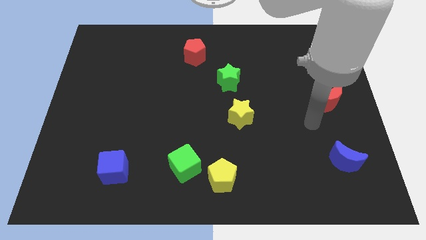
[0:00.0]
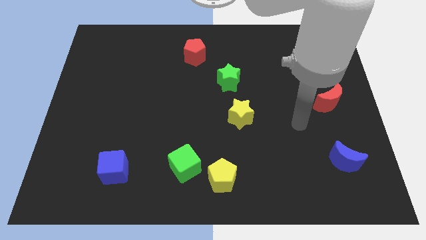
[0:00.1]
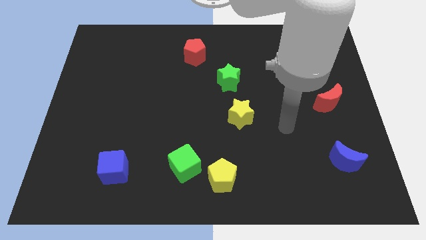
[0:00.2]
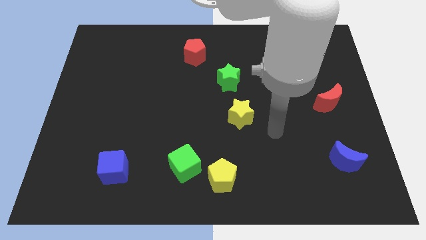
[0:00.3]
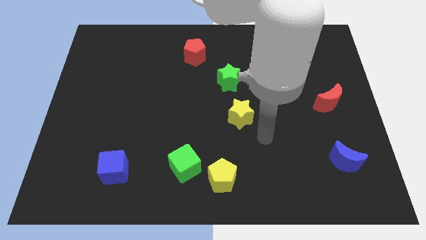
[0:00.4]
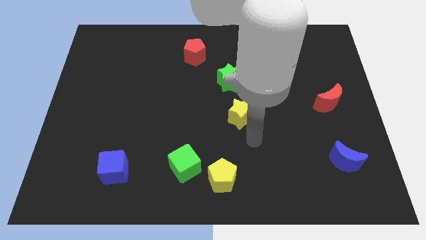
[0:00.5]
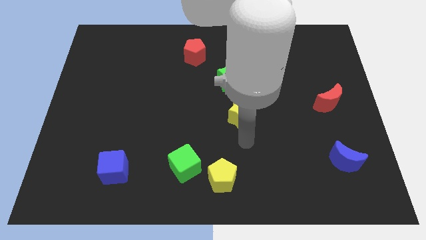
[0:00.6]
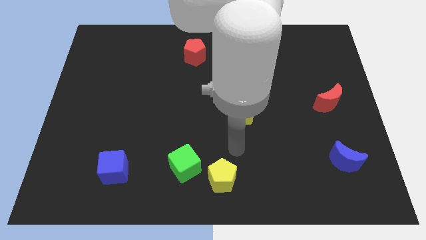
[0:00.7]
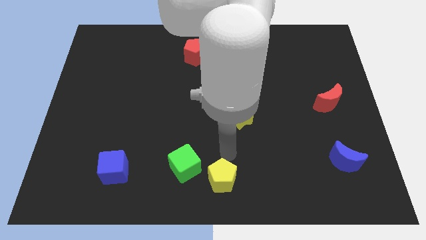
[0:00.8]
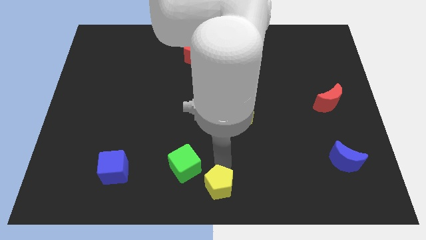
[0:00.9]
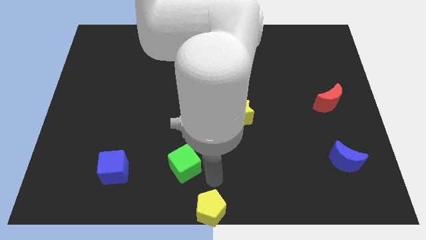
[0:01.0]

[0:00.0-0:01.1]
separate the green cube from the yellow pentagon

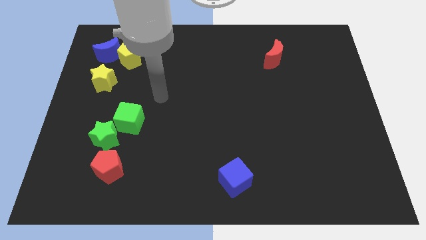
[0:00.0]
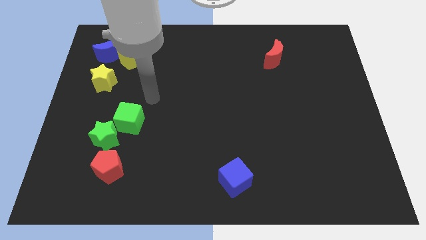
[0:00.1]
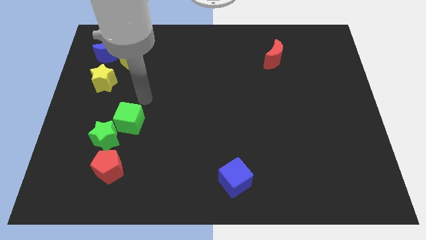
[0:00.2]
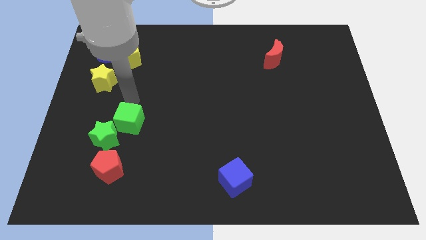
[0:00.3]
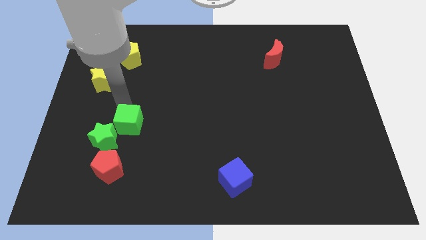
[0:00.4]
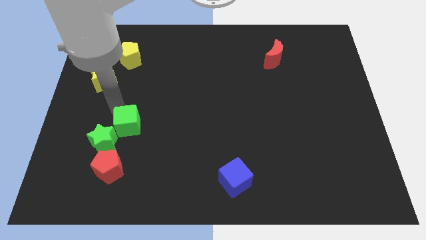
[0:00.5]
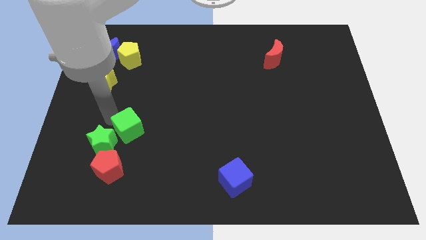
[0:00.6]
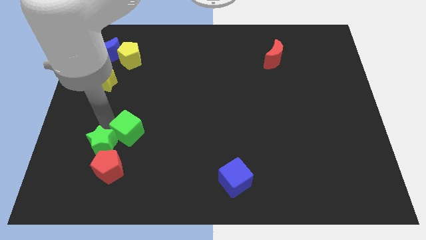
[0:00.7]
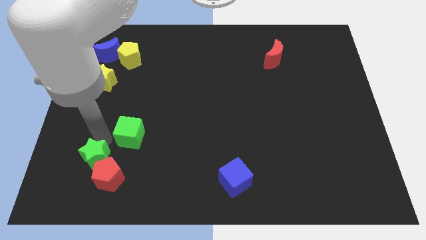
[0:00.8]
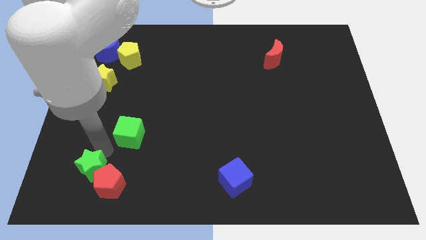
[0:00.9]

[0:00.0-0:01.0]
pull the green cube apart from the green star

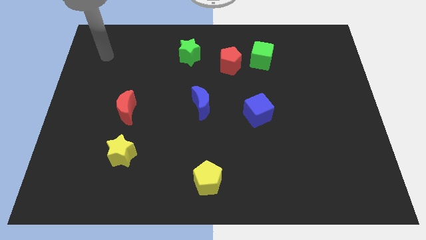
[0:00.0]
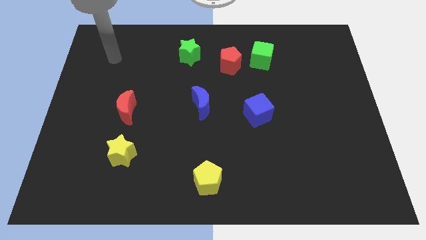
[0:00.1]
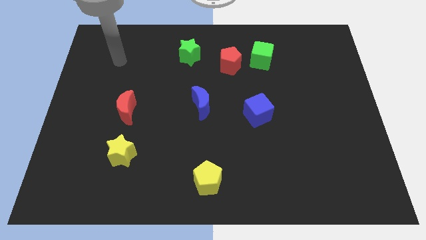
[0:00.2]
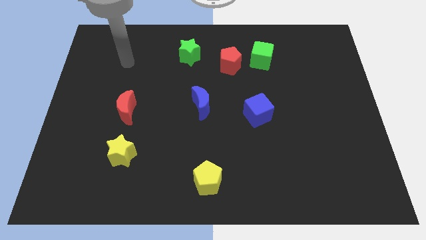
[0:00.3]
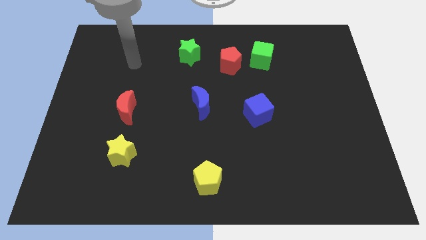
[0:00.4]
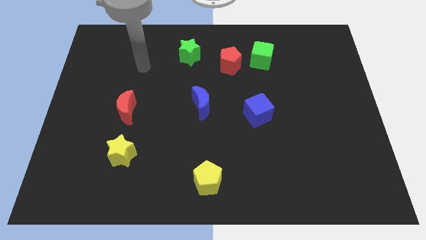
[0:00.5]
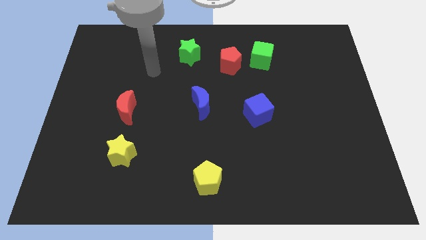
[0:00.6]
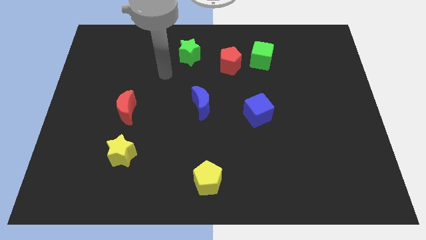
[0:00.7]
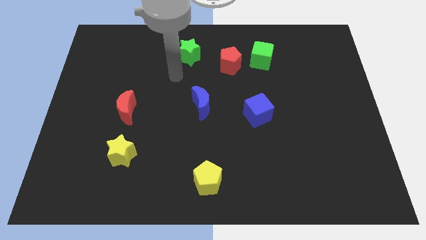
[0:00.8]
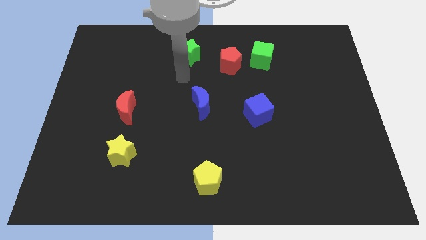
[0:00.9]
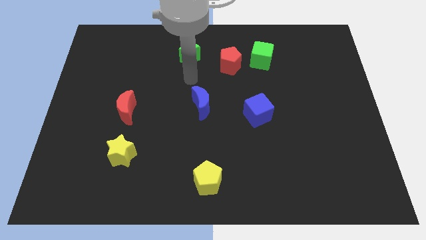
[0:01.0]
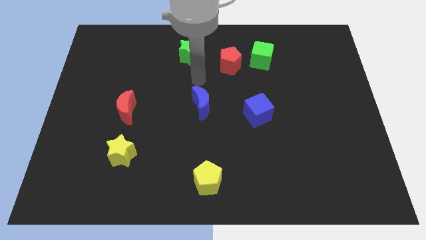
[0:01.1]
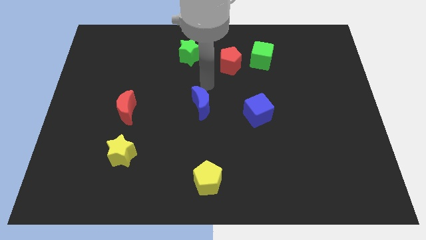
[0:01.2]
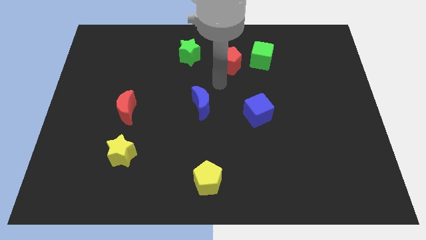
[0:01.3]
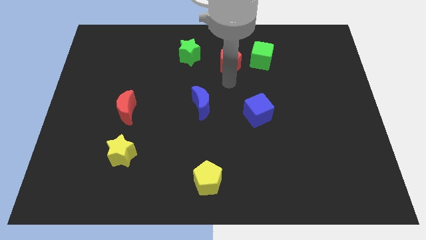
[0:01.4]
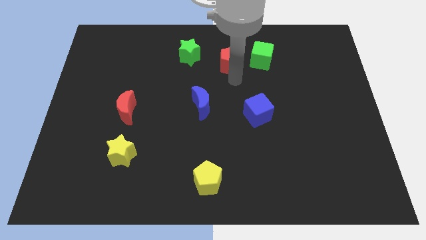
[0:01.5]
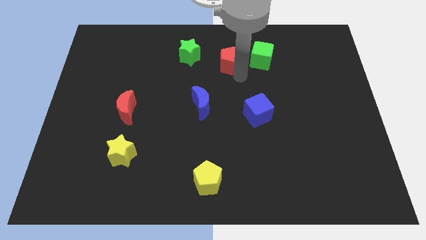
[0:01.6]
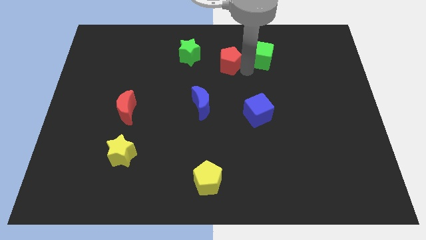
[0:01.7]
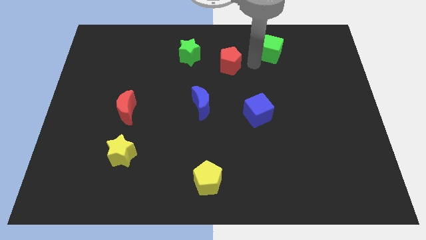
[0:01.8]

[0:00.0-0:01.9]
move the red pentagon away from the green cube

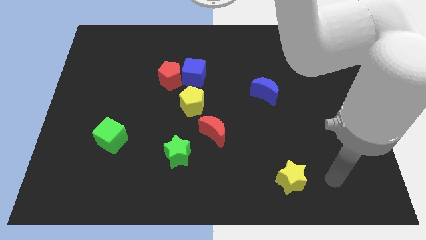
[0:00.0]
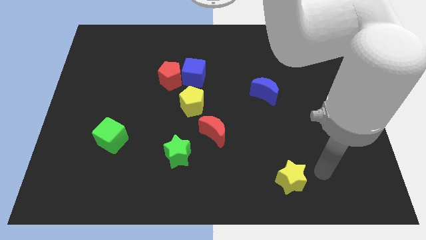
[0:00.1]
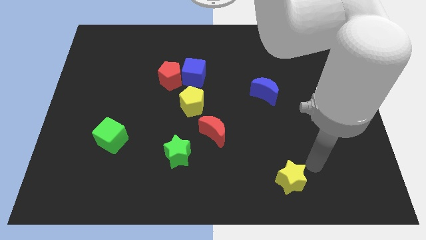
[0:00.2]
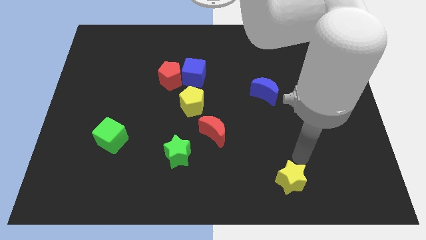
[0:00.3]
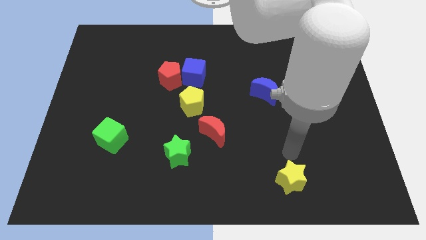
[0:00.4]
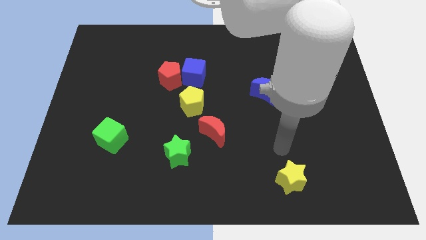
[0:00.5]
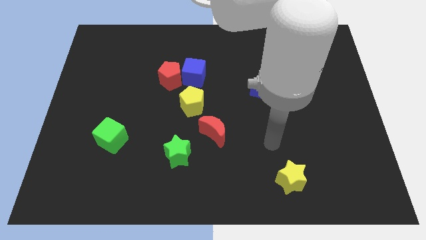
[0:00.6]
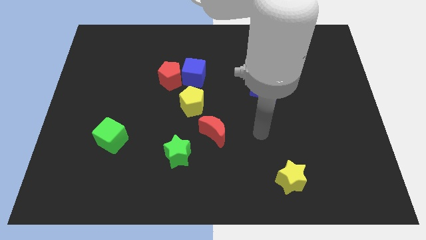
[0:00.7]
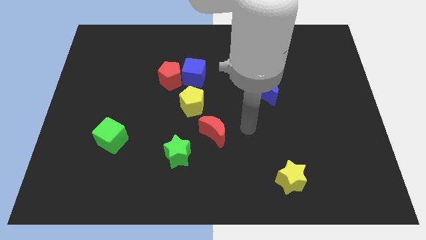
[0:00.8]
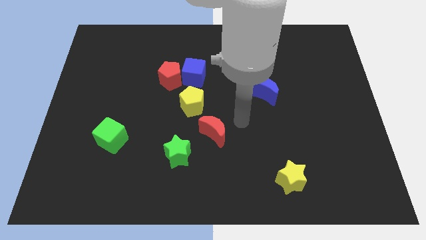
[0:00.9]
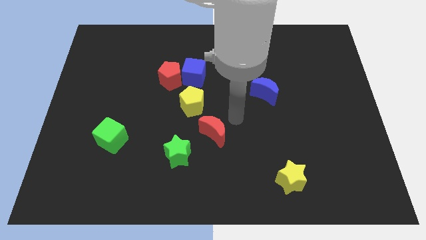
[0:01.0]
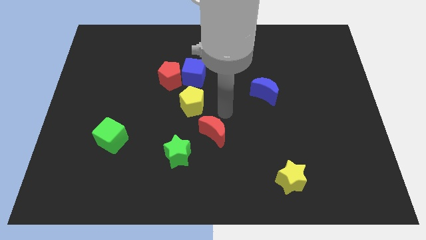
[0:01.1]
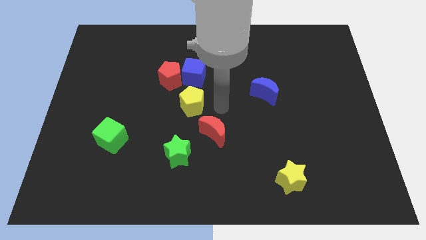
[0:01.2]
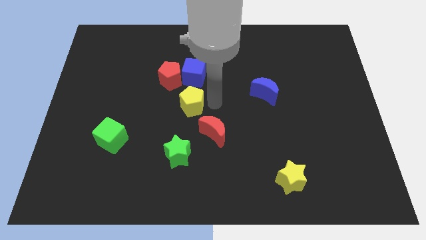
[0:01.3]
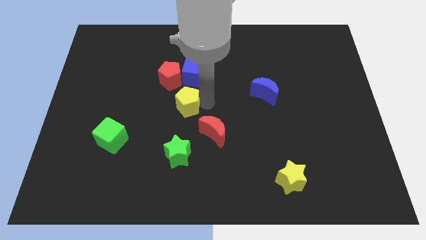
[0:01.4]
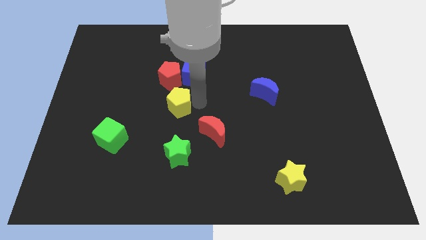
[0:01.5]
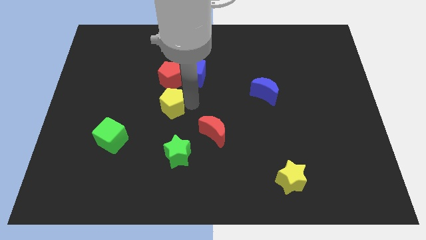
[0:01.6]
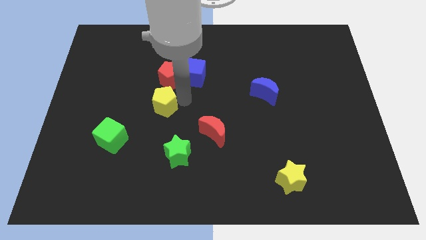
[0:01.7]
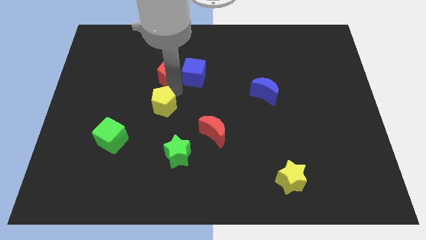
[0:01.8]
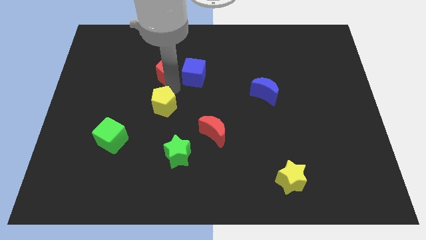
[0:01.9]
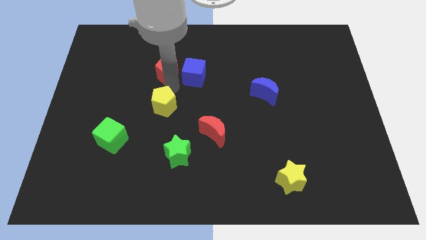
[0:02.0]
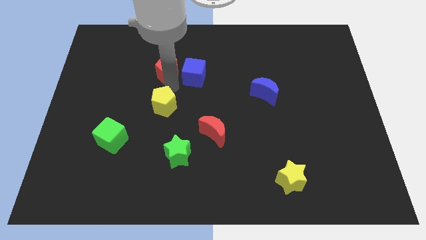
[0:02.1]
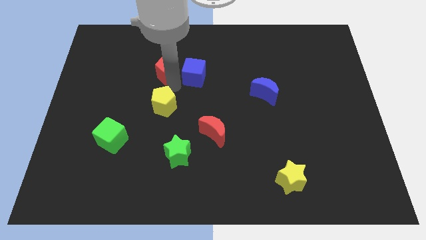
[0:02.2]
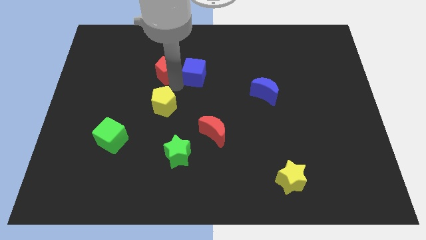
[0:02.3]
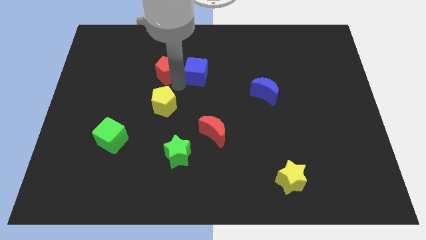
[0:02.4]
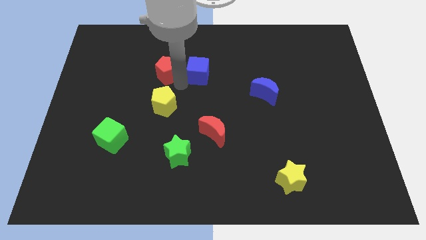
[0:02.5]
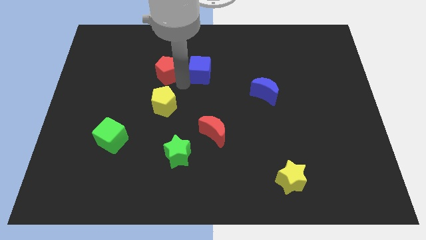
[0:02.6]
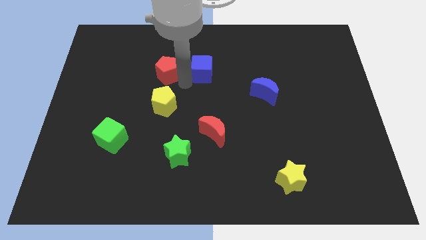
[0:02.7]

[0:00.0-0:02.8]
separate the blue cube from the red pentagon and yellow pentagon

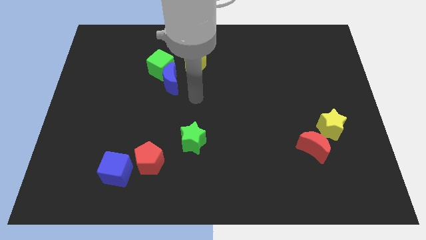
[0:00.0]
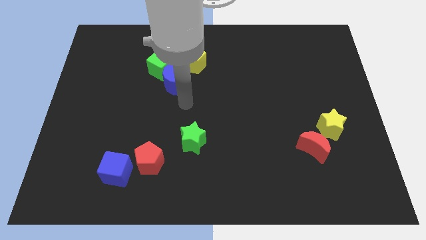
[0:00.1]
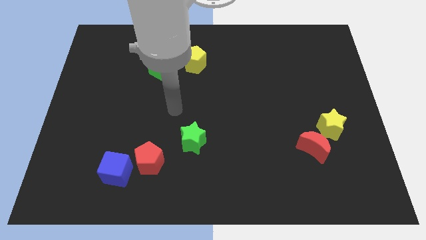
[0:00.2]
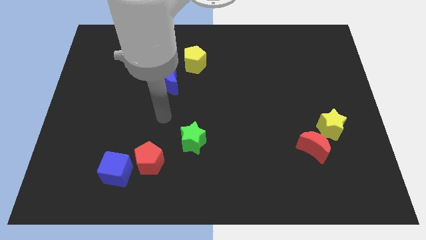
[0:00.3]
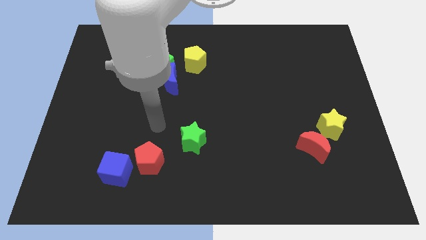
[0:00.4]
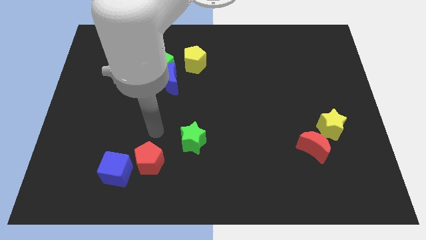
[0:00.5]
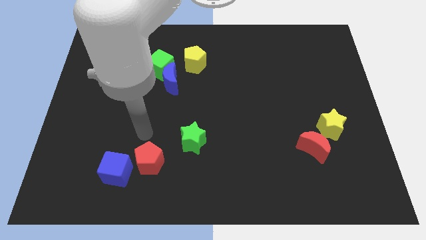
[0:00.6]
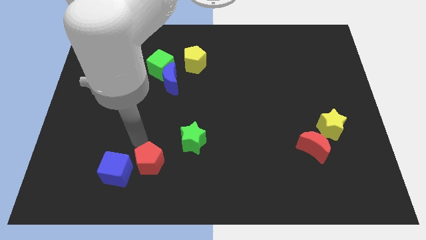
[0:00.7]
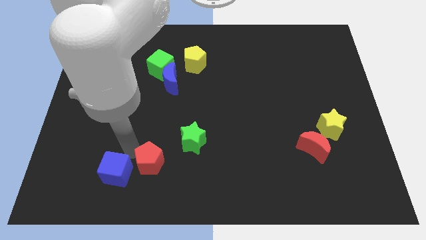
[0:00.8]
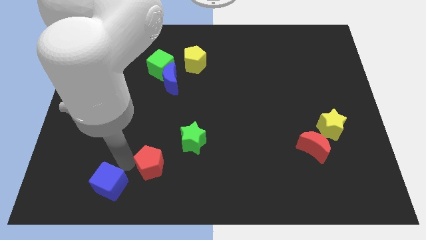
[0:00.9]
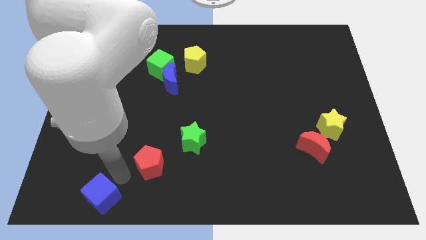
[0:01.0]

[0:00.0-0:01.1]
pull the red pentagon apart from the blue cube

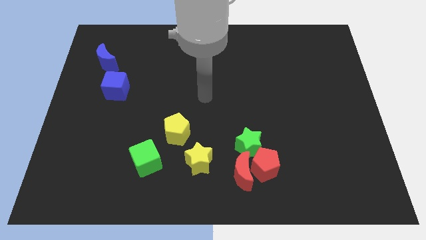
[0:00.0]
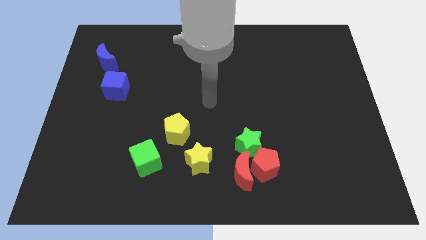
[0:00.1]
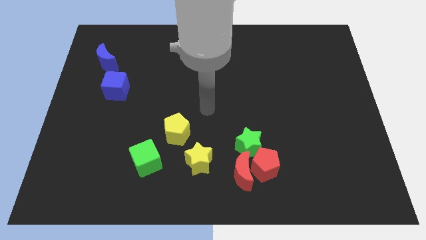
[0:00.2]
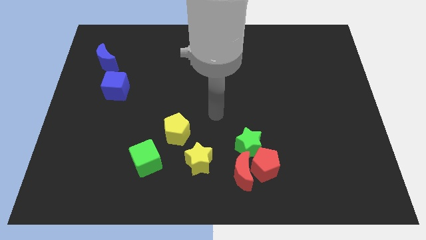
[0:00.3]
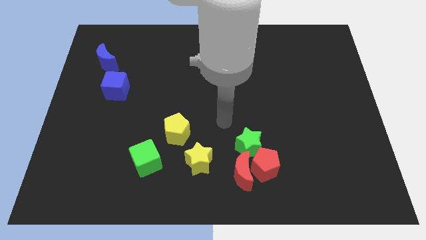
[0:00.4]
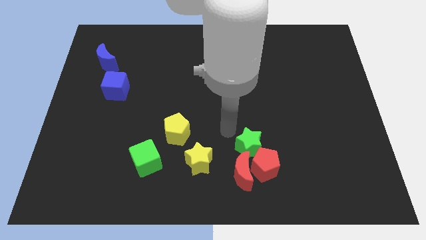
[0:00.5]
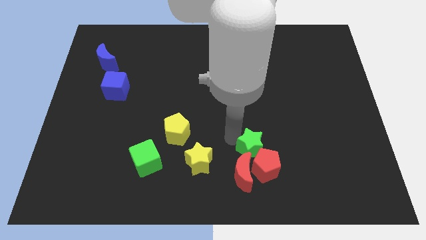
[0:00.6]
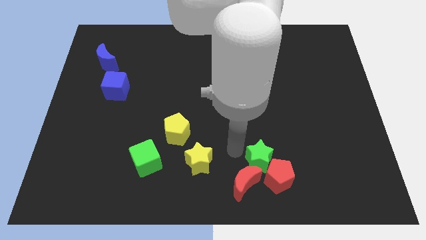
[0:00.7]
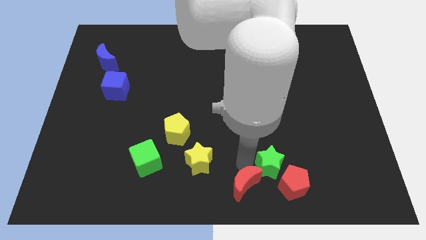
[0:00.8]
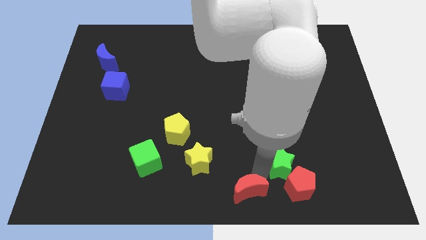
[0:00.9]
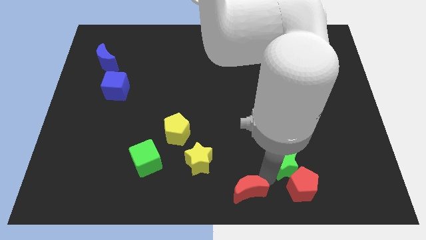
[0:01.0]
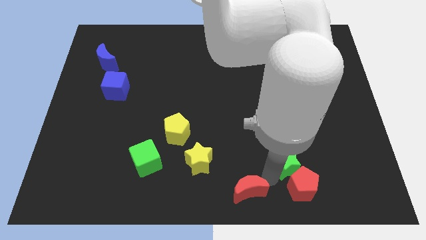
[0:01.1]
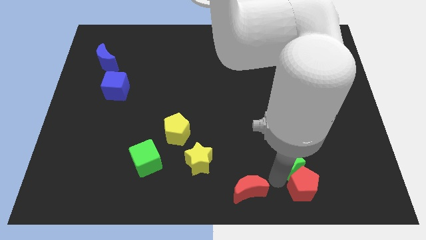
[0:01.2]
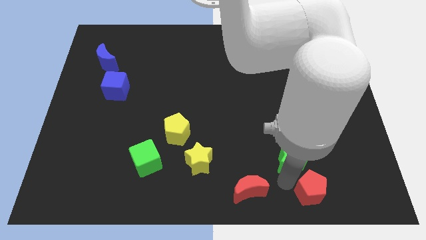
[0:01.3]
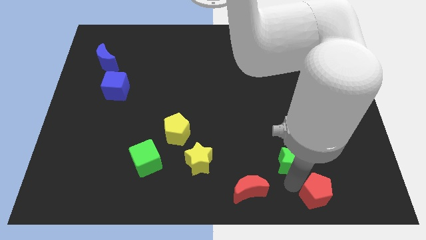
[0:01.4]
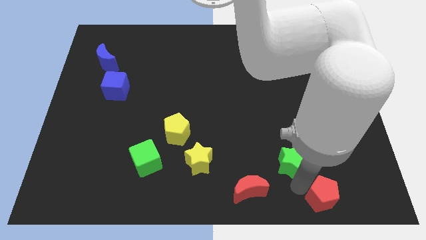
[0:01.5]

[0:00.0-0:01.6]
move the red pentagon away from the red moon and green star
